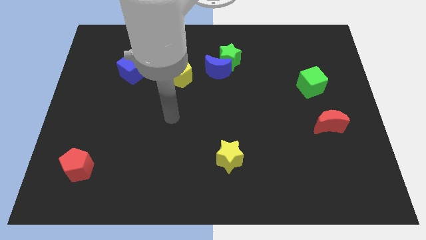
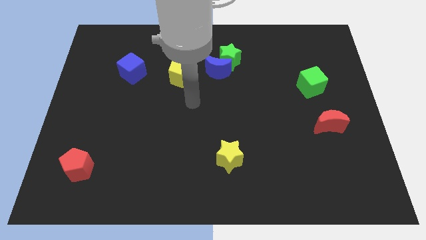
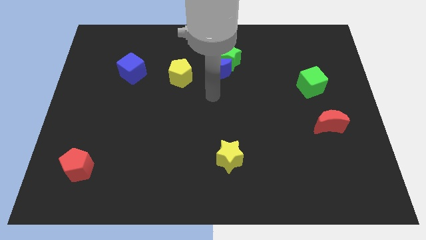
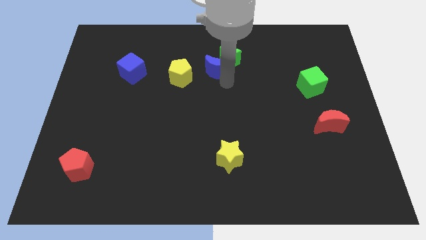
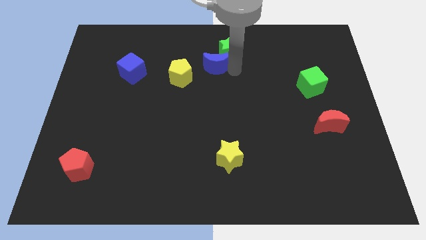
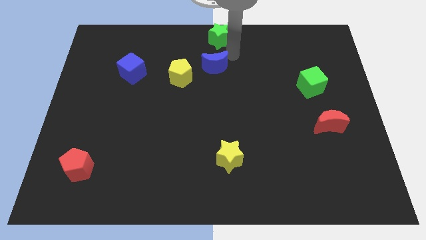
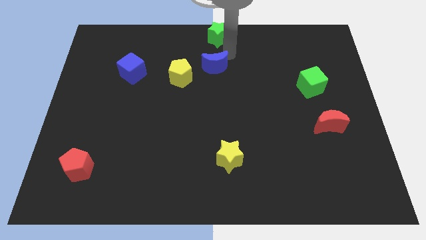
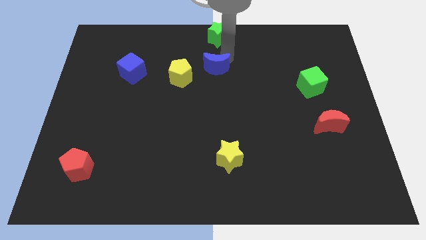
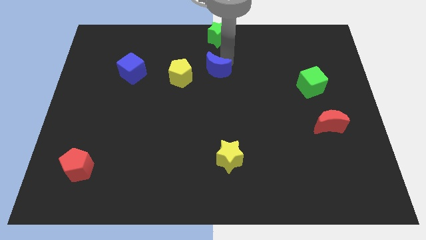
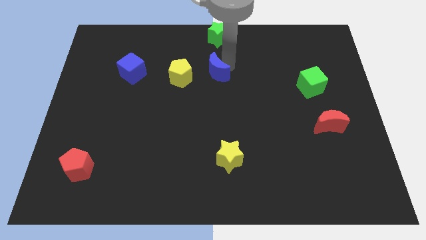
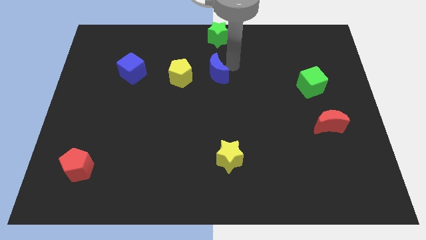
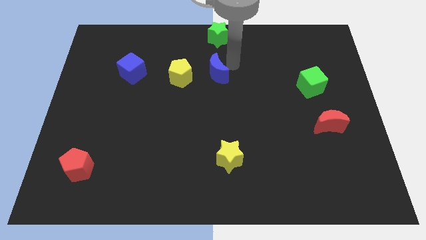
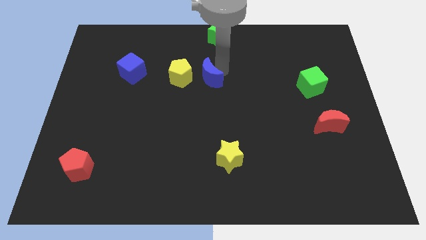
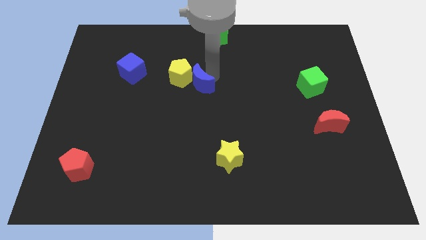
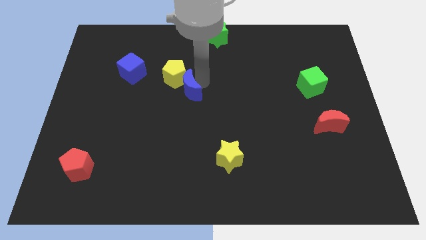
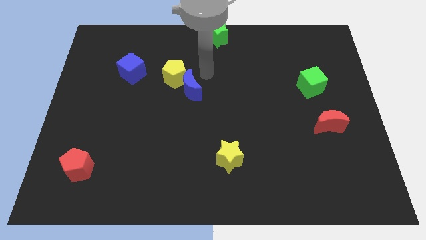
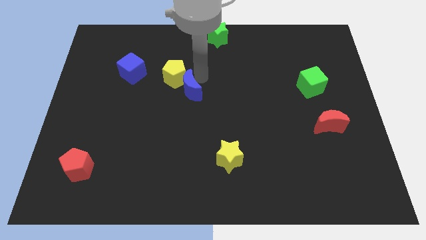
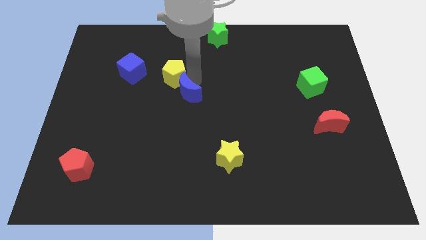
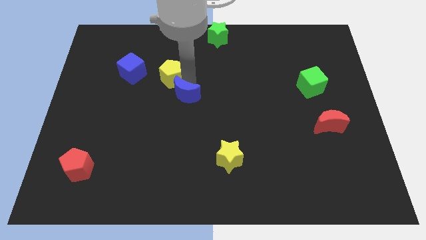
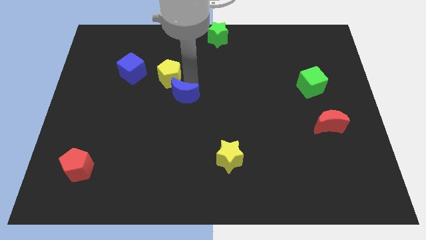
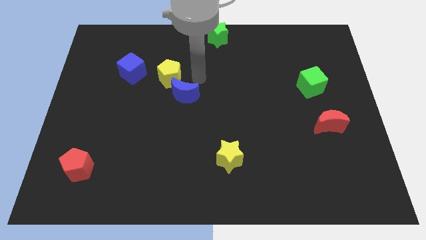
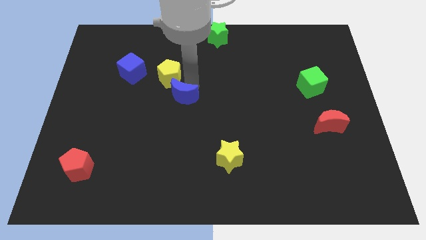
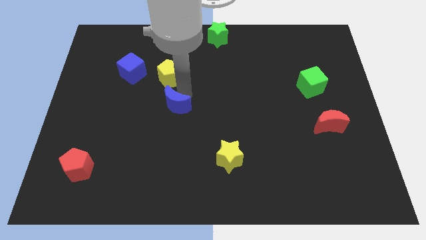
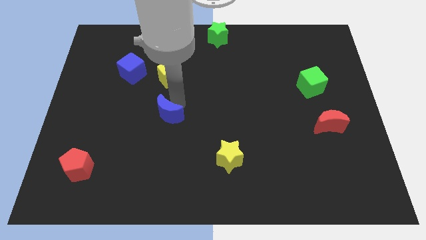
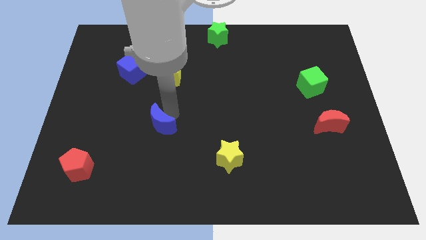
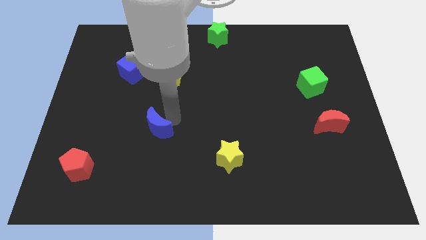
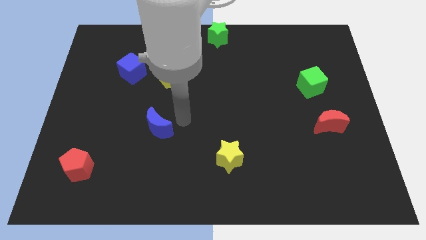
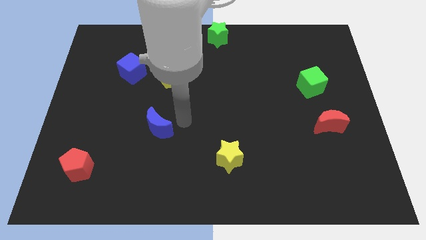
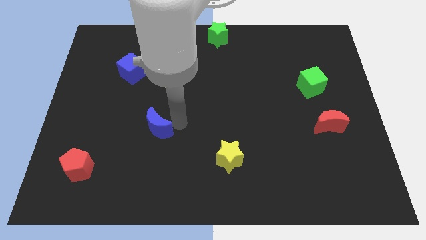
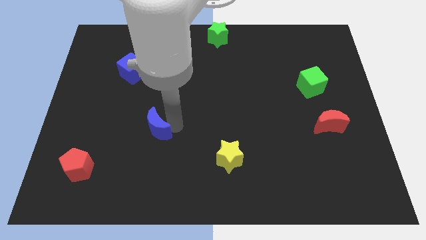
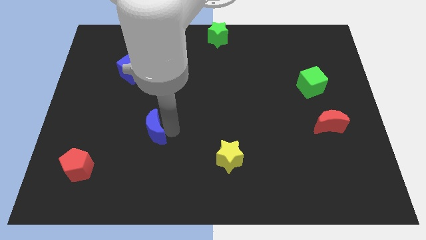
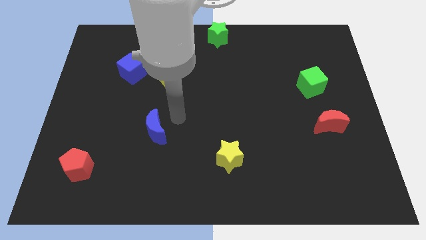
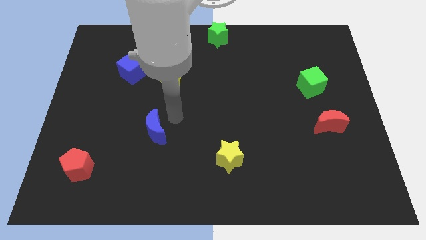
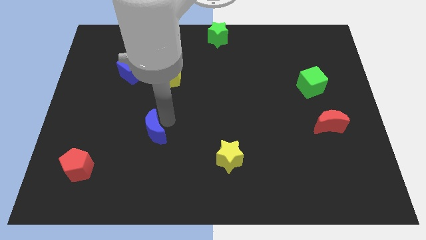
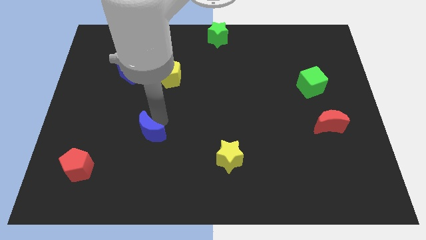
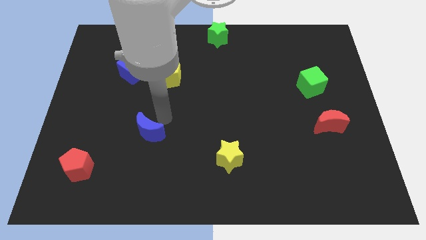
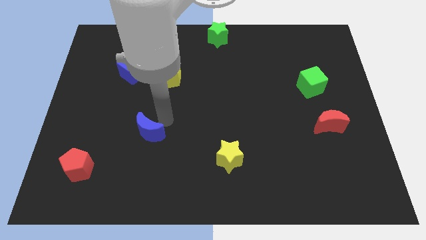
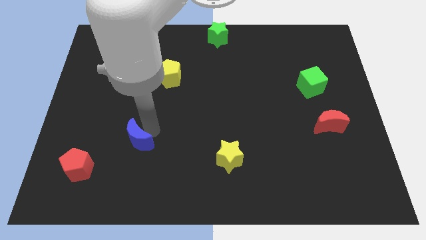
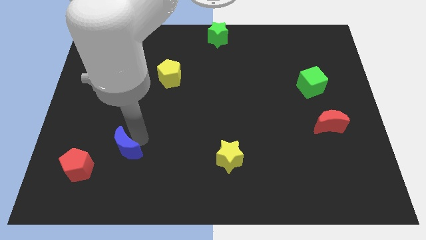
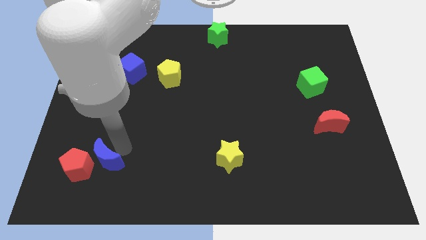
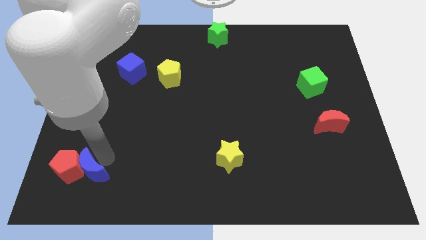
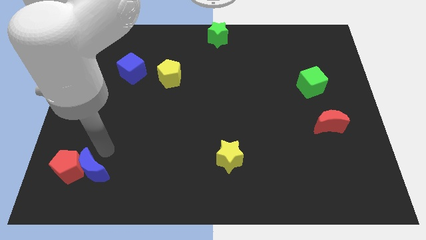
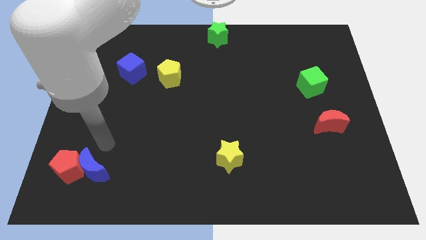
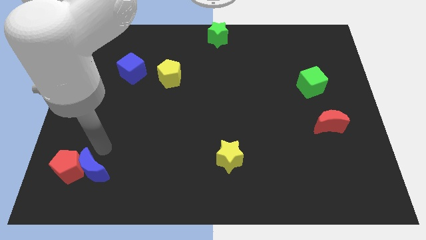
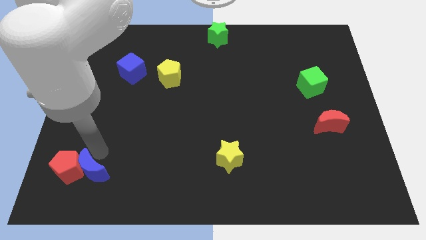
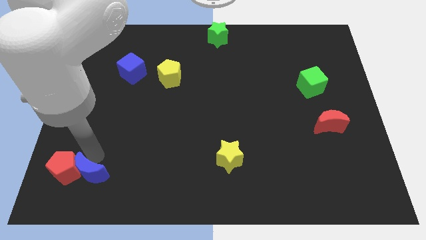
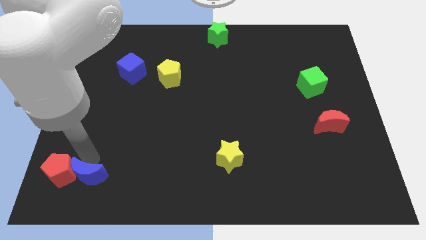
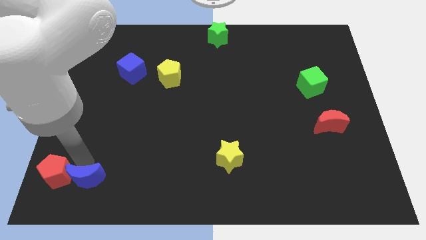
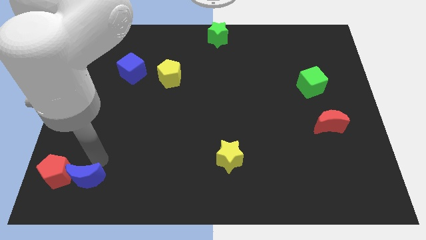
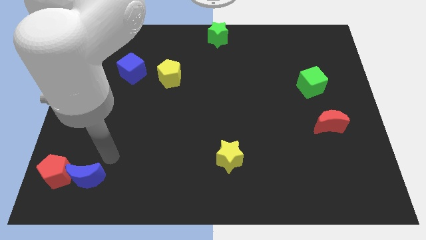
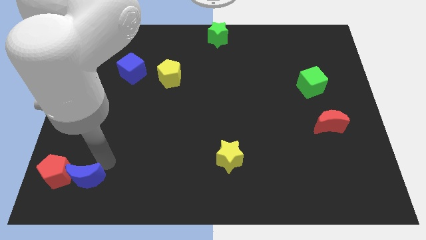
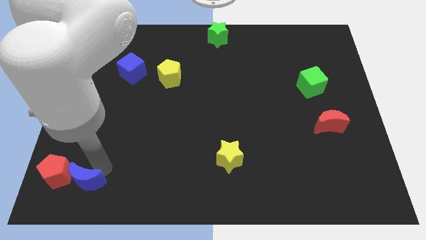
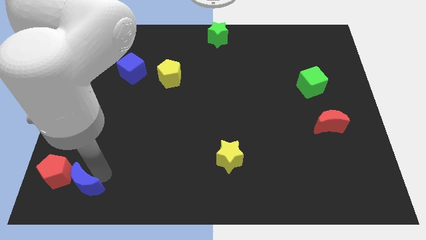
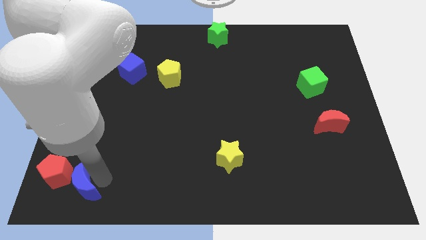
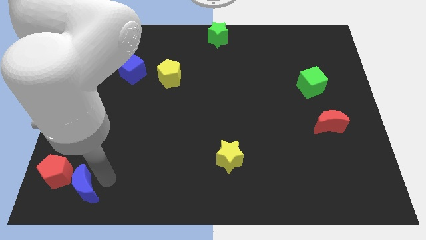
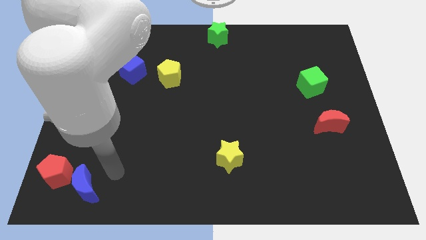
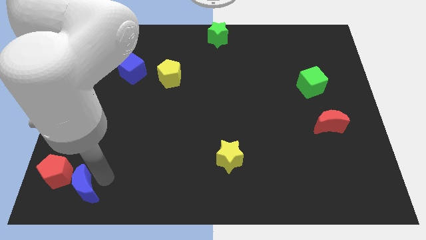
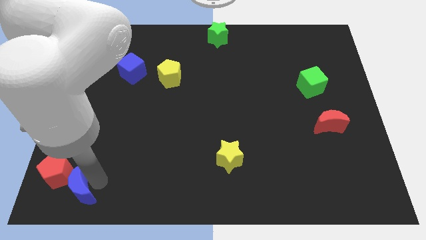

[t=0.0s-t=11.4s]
move the blue moon to the bottom left
